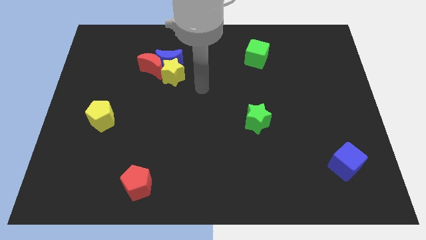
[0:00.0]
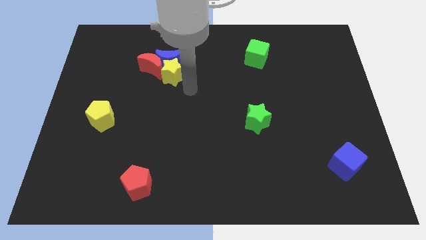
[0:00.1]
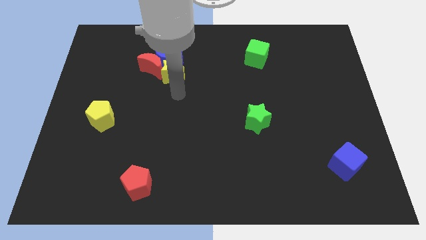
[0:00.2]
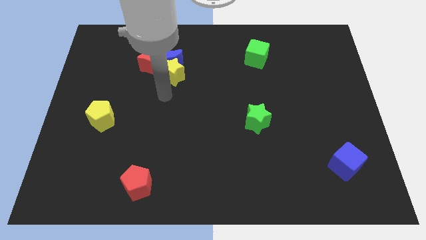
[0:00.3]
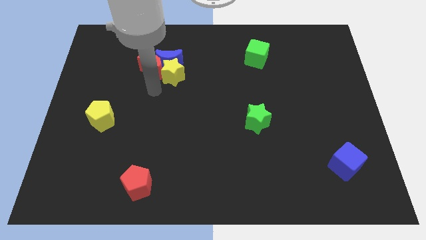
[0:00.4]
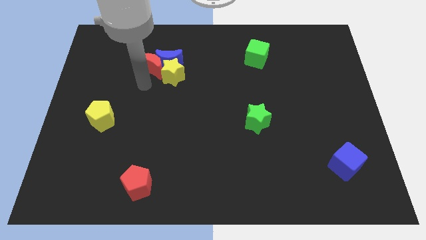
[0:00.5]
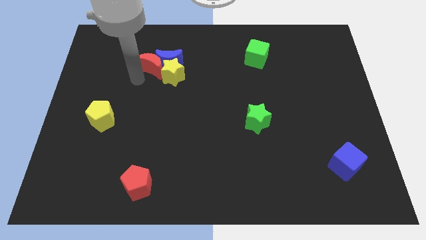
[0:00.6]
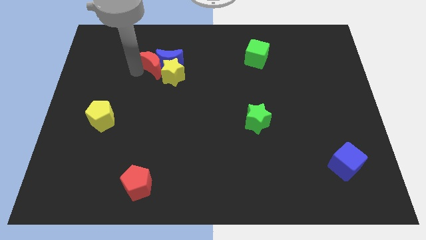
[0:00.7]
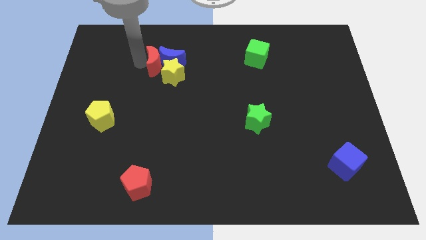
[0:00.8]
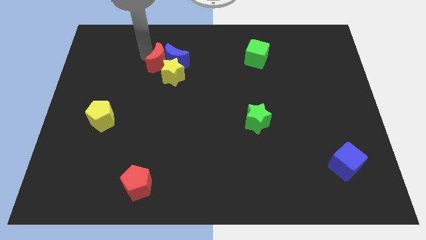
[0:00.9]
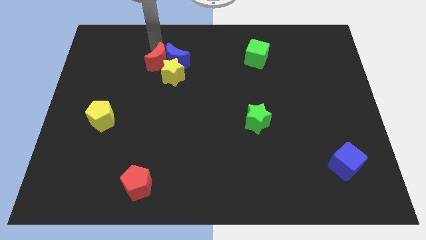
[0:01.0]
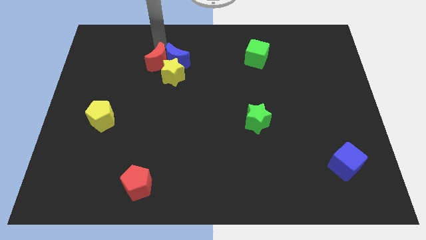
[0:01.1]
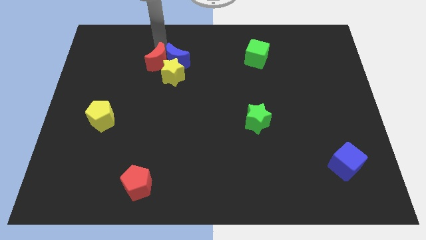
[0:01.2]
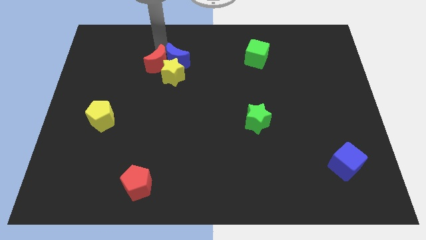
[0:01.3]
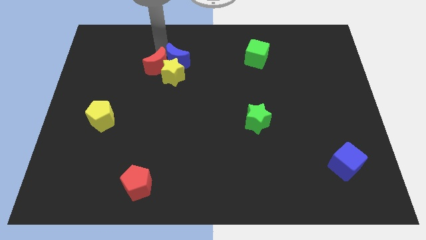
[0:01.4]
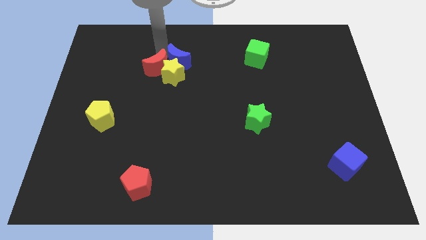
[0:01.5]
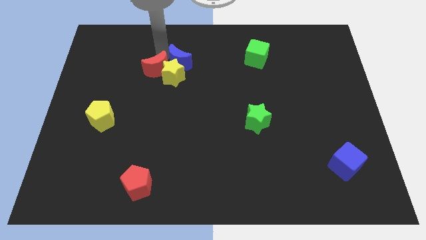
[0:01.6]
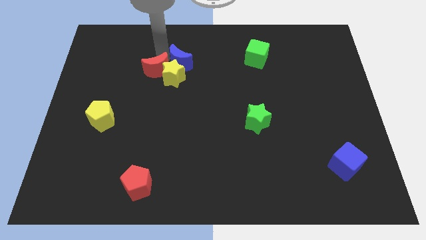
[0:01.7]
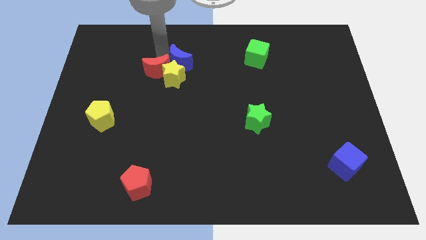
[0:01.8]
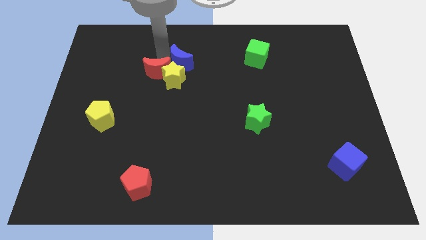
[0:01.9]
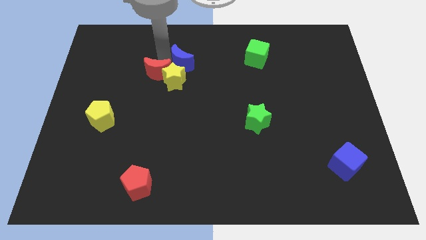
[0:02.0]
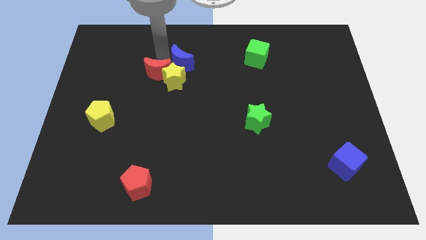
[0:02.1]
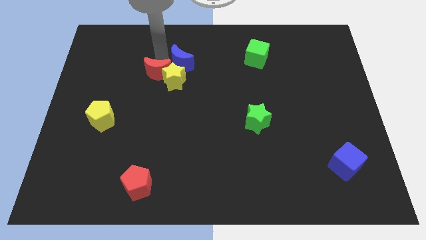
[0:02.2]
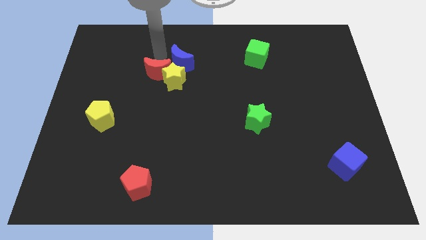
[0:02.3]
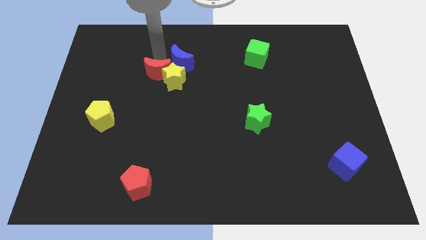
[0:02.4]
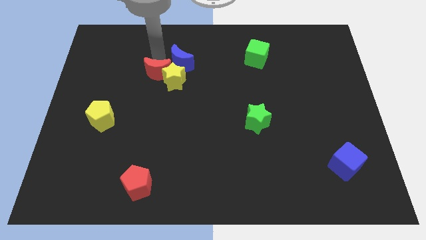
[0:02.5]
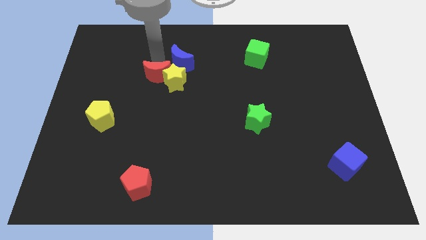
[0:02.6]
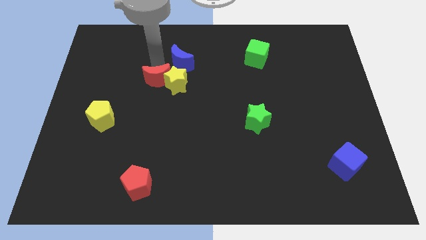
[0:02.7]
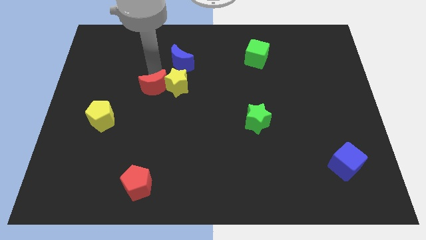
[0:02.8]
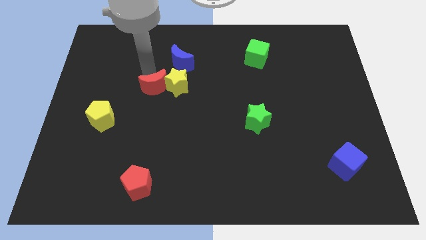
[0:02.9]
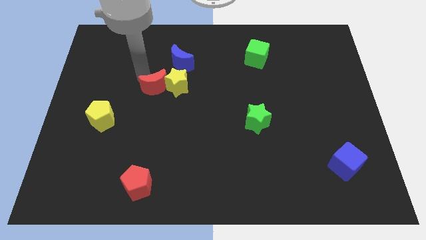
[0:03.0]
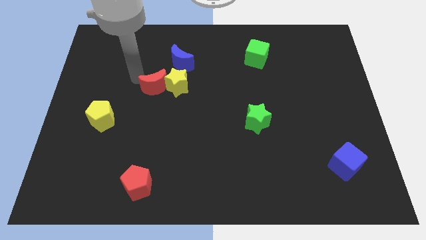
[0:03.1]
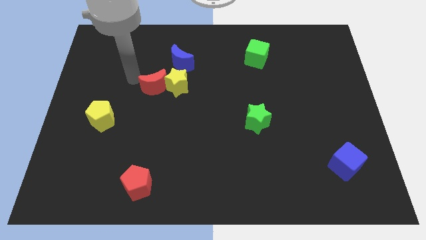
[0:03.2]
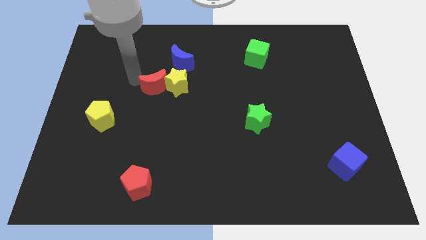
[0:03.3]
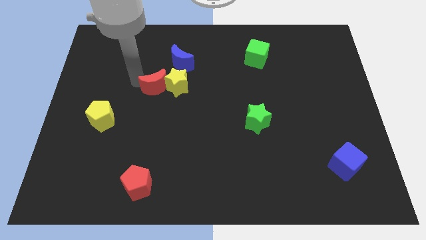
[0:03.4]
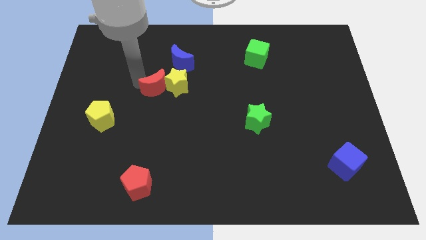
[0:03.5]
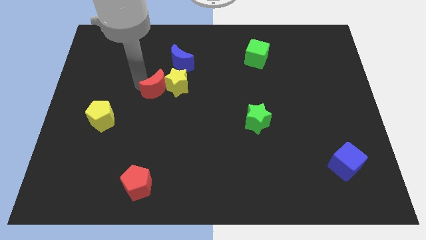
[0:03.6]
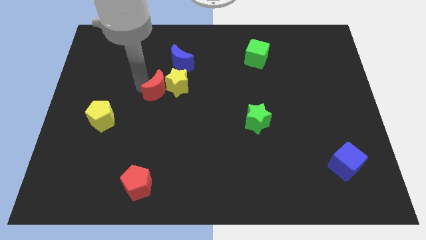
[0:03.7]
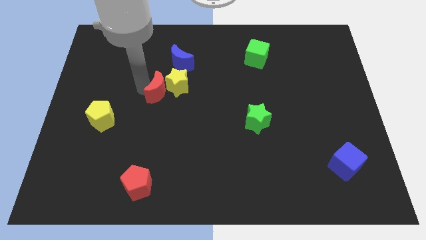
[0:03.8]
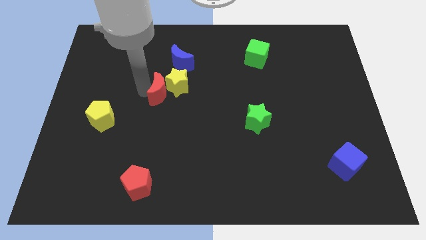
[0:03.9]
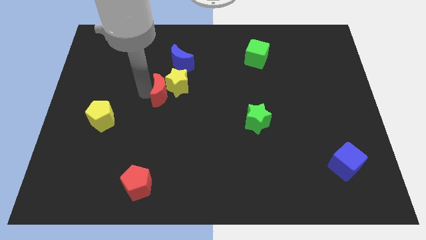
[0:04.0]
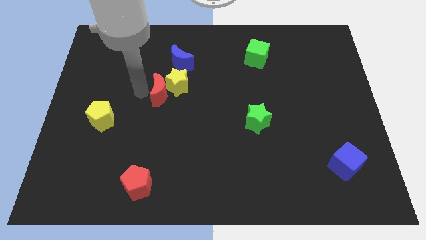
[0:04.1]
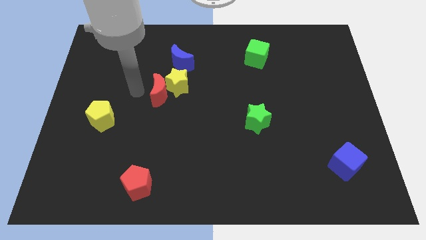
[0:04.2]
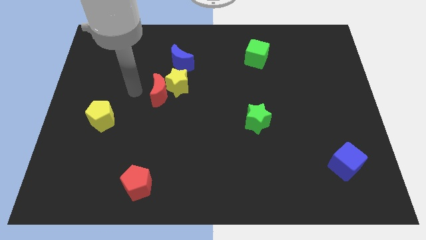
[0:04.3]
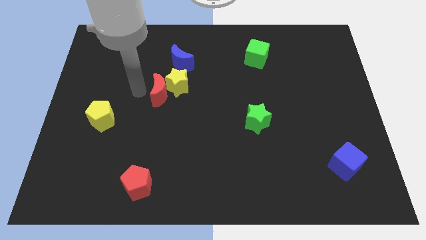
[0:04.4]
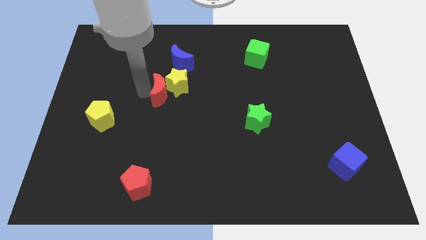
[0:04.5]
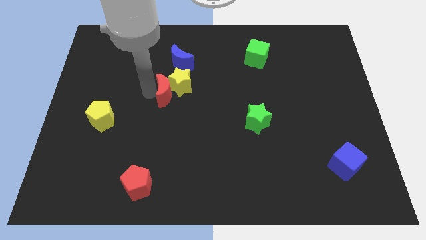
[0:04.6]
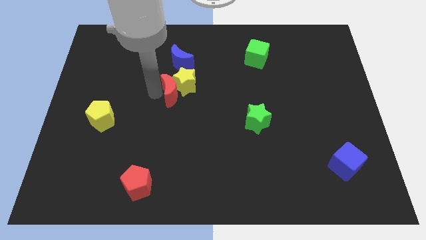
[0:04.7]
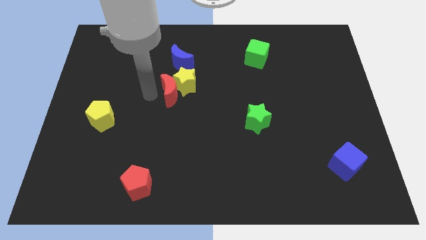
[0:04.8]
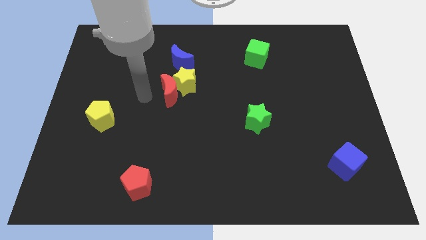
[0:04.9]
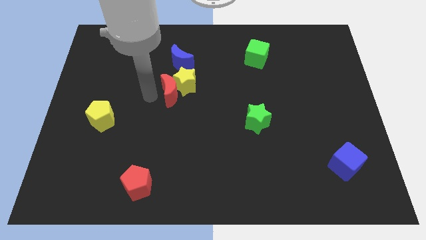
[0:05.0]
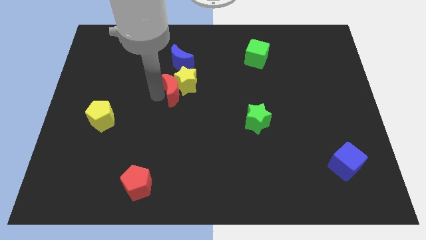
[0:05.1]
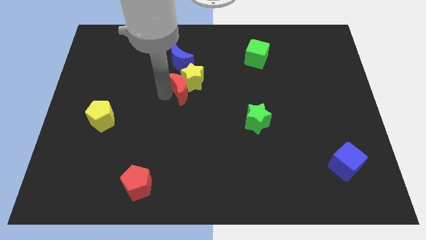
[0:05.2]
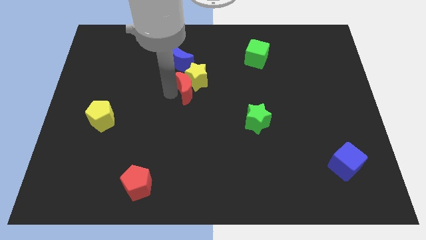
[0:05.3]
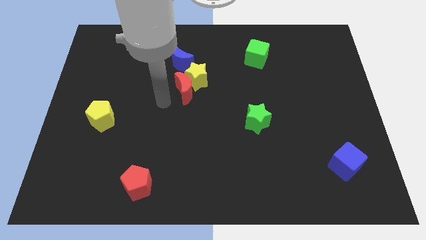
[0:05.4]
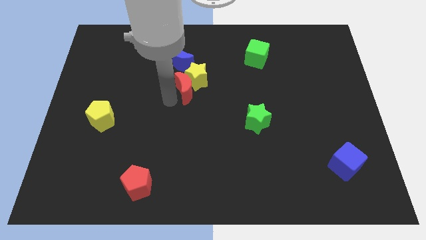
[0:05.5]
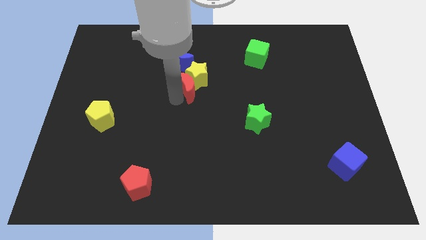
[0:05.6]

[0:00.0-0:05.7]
push the red moon somewhat to the right

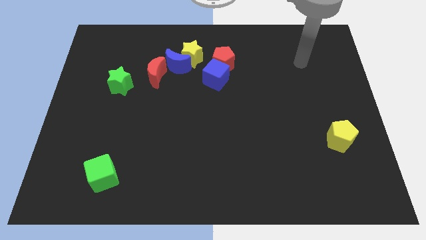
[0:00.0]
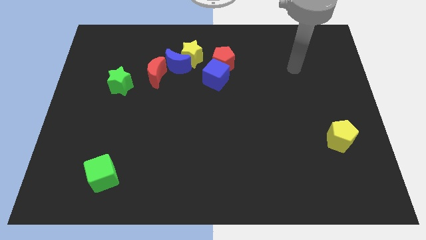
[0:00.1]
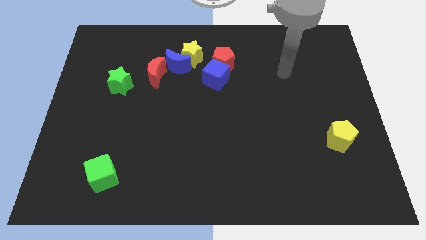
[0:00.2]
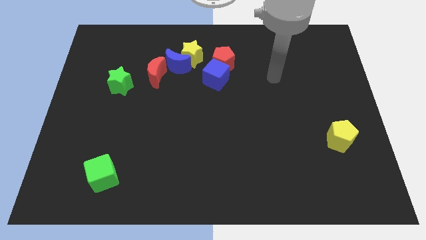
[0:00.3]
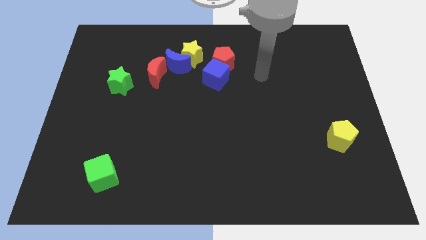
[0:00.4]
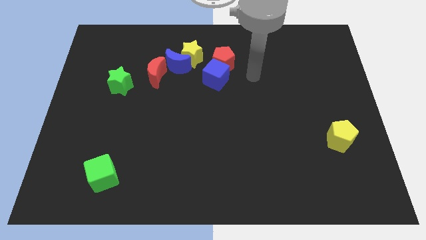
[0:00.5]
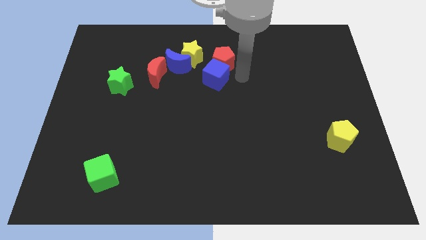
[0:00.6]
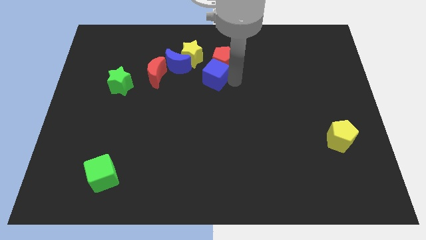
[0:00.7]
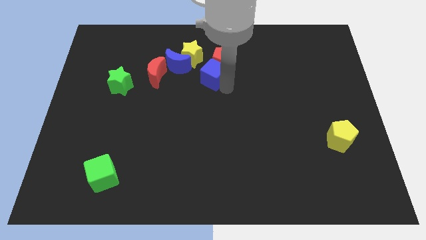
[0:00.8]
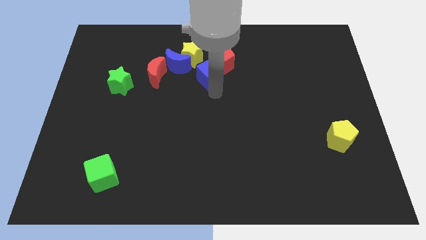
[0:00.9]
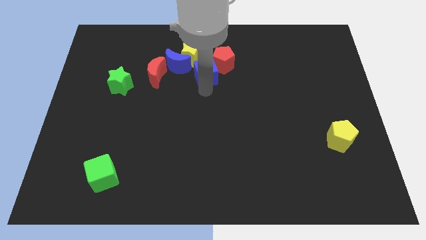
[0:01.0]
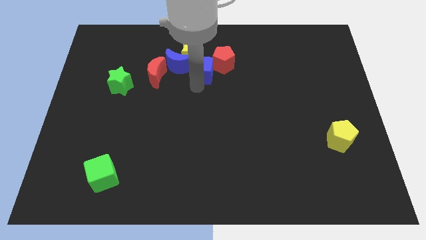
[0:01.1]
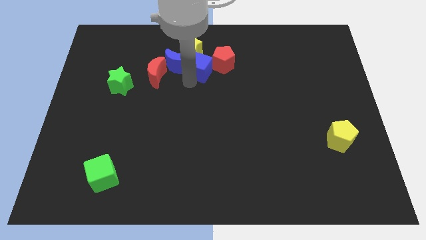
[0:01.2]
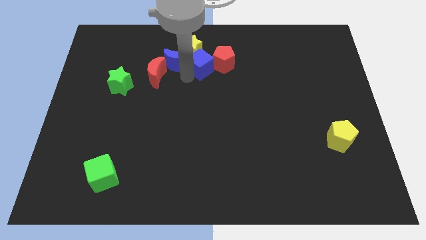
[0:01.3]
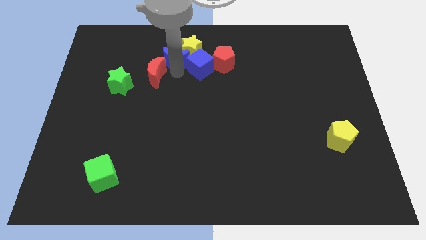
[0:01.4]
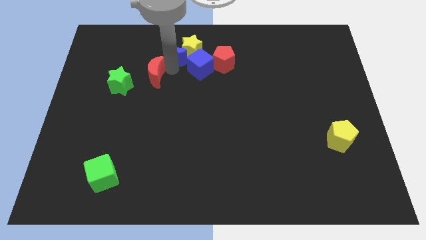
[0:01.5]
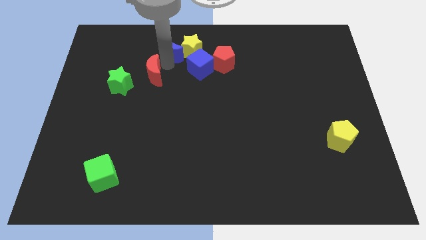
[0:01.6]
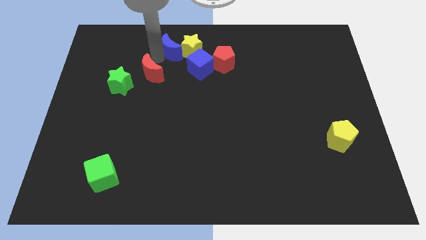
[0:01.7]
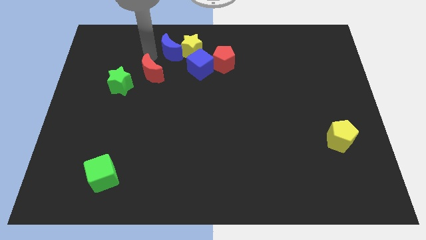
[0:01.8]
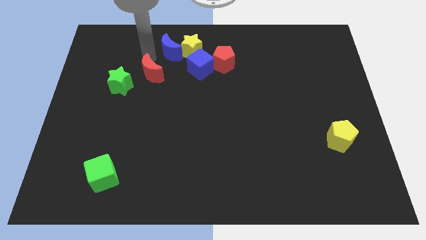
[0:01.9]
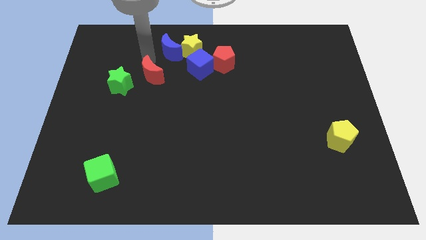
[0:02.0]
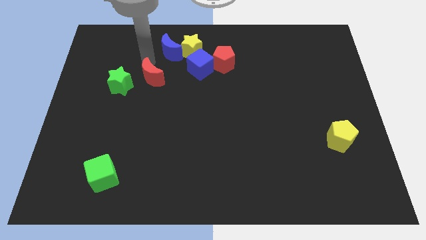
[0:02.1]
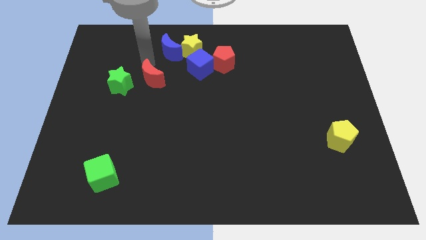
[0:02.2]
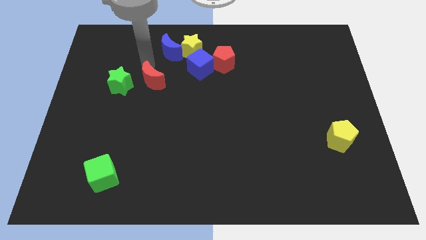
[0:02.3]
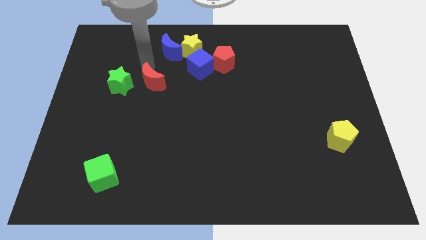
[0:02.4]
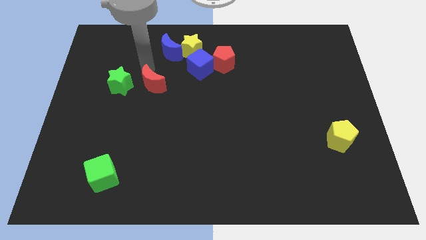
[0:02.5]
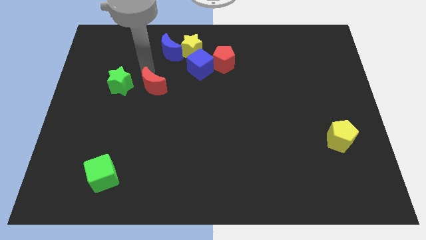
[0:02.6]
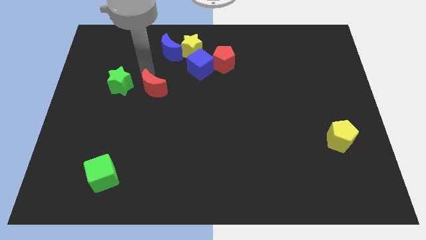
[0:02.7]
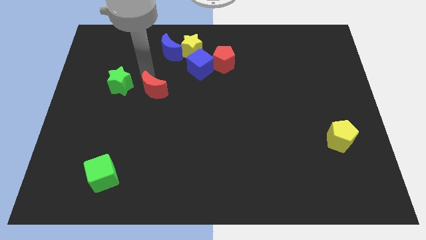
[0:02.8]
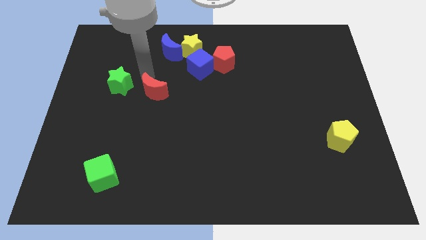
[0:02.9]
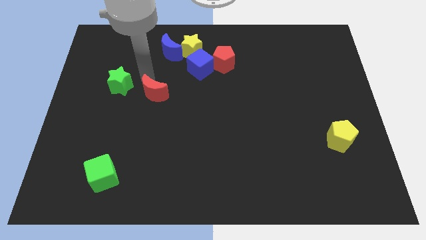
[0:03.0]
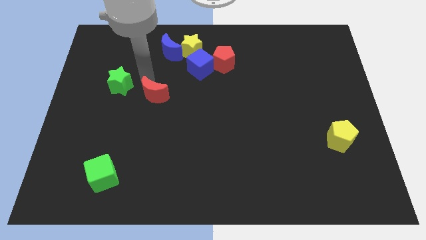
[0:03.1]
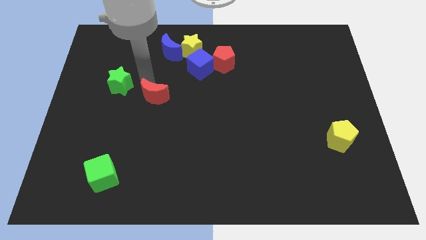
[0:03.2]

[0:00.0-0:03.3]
move the red moon somewhat downwards
